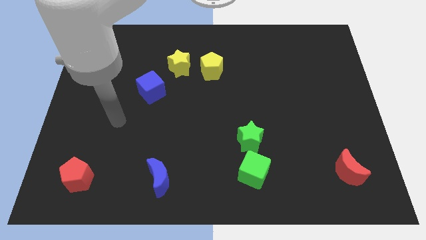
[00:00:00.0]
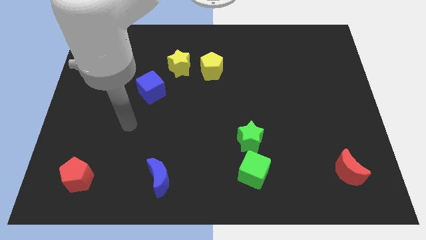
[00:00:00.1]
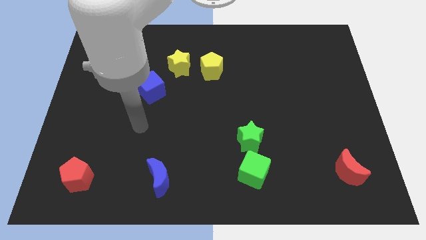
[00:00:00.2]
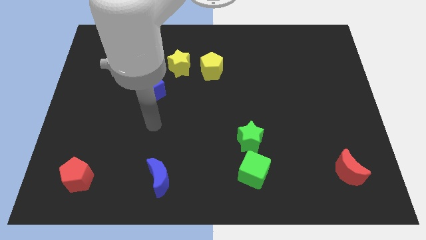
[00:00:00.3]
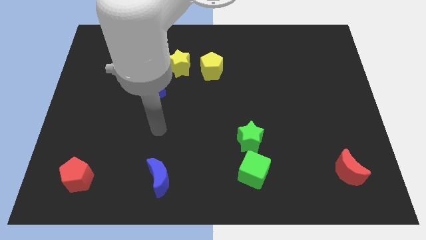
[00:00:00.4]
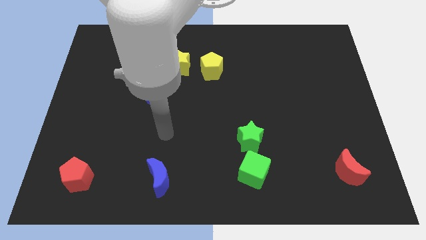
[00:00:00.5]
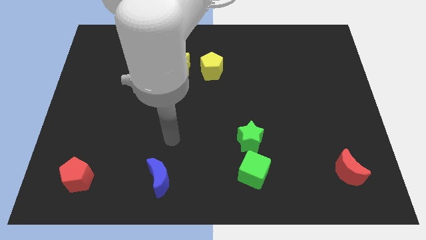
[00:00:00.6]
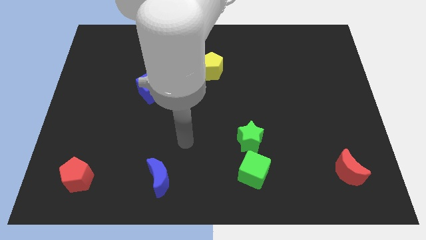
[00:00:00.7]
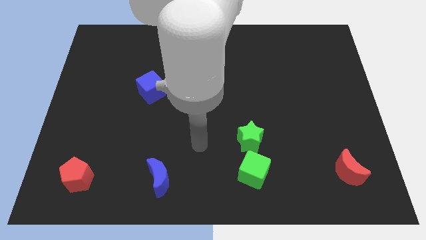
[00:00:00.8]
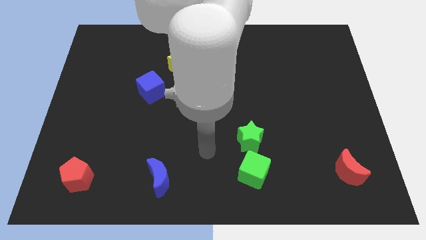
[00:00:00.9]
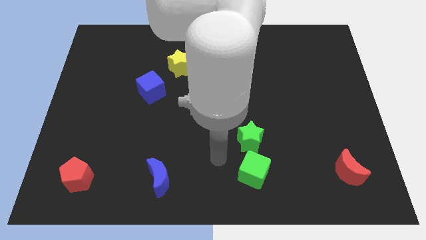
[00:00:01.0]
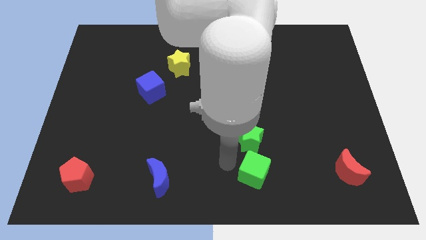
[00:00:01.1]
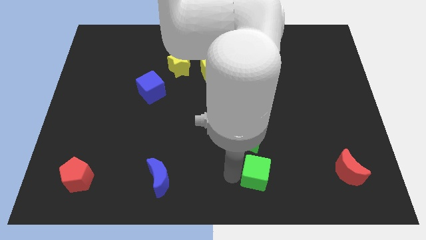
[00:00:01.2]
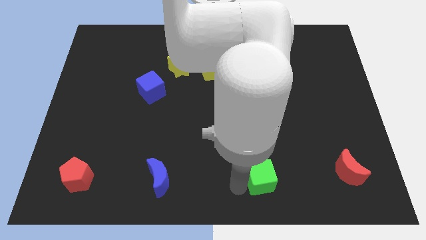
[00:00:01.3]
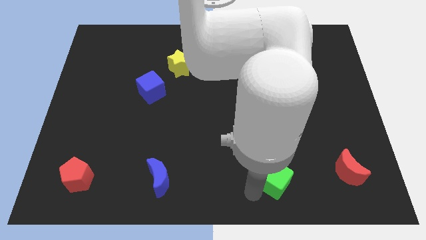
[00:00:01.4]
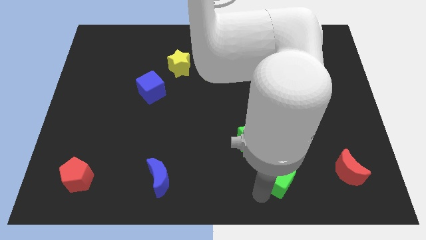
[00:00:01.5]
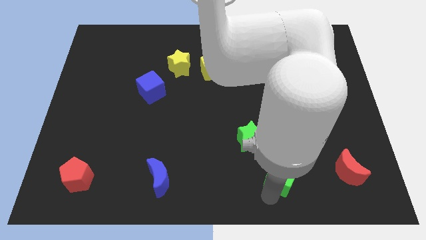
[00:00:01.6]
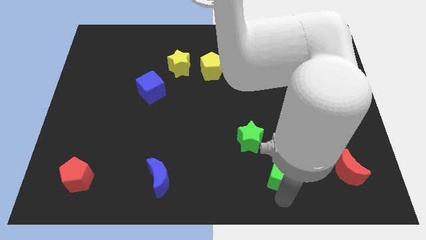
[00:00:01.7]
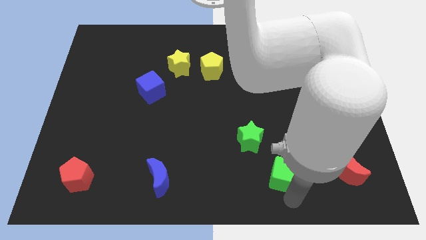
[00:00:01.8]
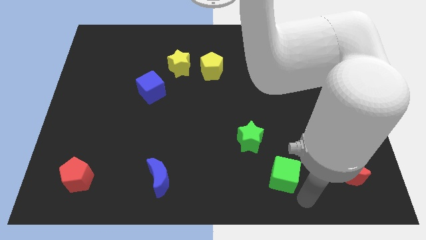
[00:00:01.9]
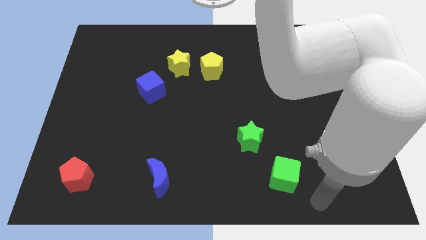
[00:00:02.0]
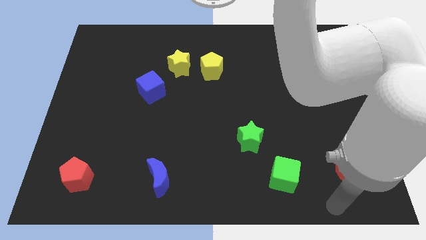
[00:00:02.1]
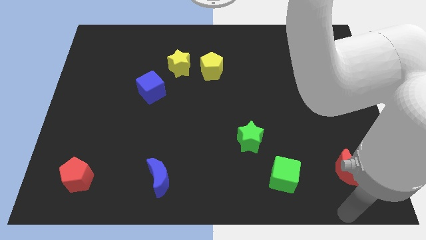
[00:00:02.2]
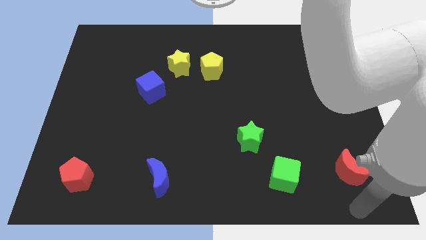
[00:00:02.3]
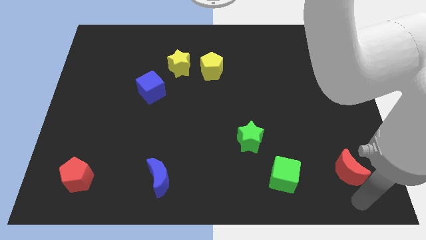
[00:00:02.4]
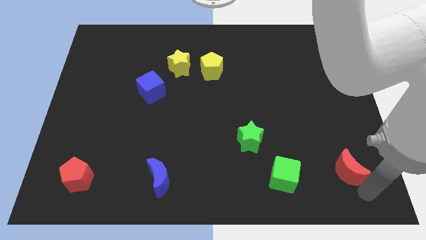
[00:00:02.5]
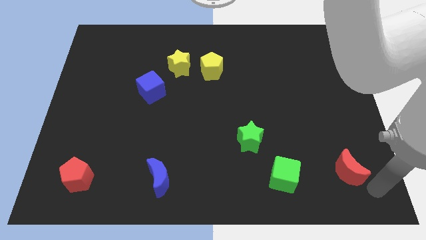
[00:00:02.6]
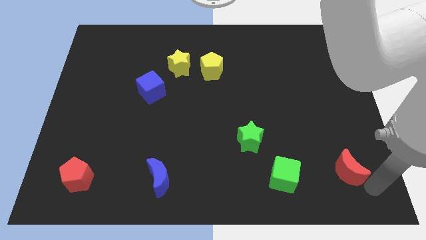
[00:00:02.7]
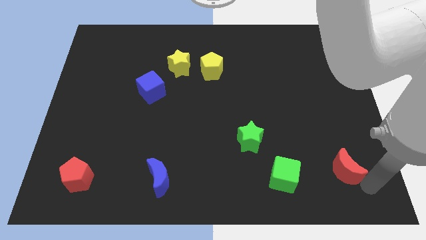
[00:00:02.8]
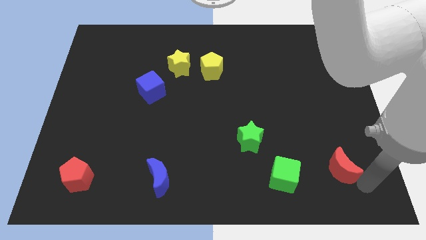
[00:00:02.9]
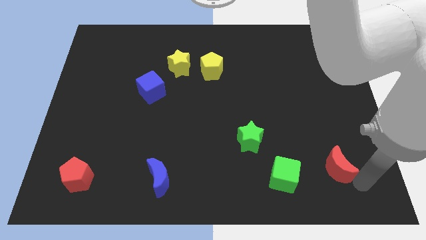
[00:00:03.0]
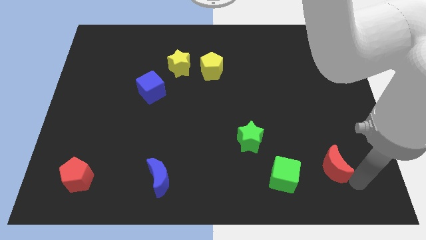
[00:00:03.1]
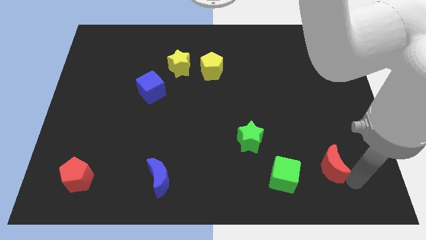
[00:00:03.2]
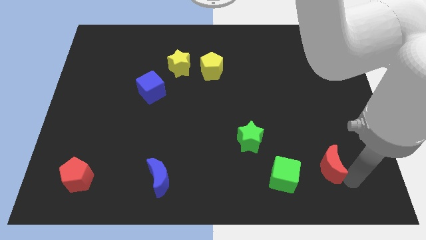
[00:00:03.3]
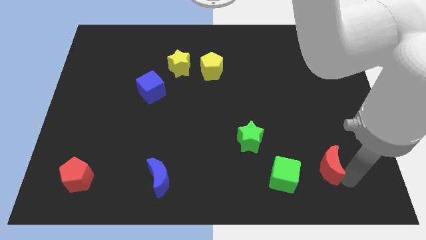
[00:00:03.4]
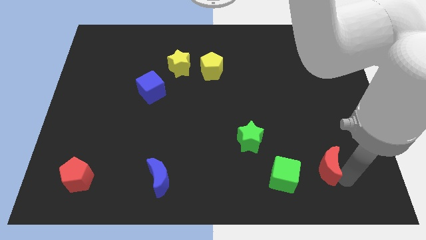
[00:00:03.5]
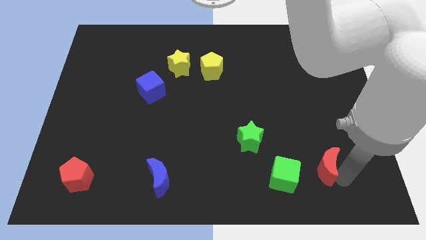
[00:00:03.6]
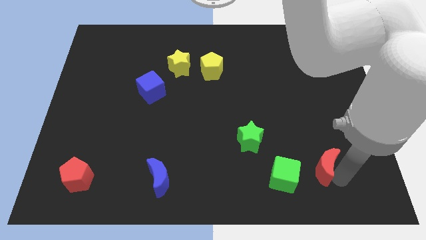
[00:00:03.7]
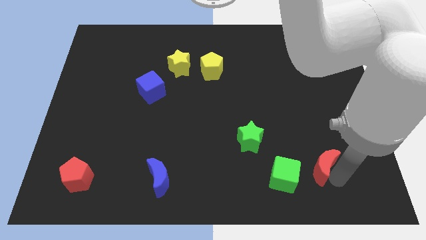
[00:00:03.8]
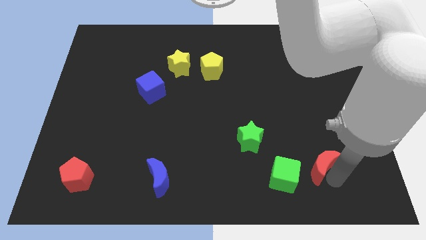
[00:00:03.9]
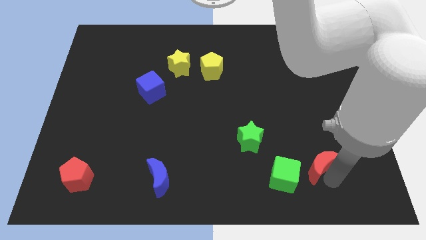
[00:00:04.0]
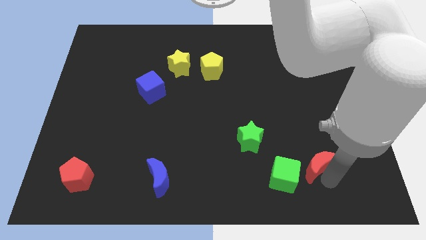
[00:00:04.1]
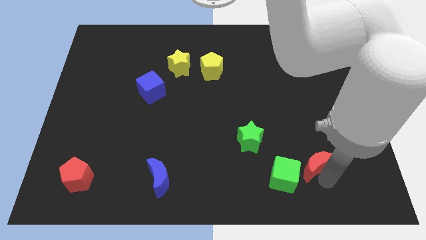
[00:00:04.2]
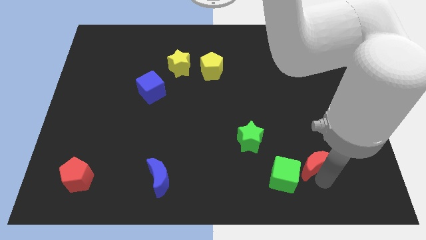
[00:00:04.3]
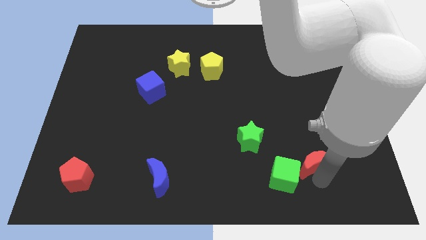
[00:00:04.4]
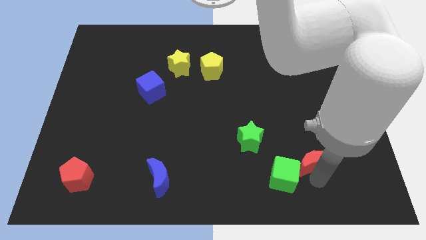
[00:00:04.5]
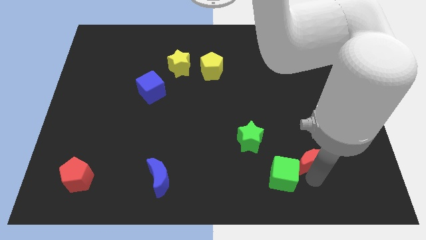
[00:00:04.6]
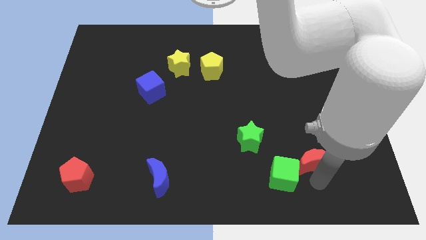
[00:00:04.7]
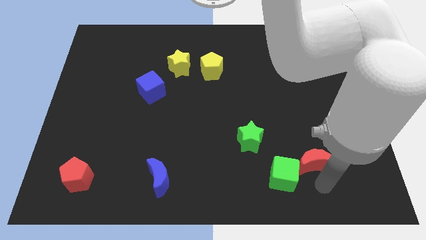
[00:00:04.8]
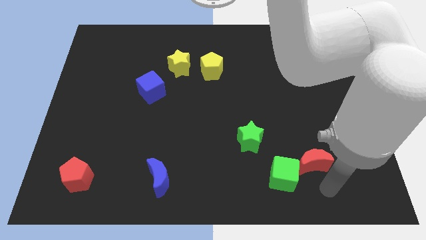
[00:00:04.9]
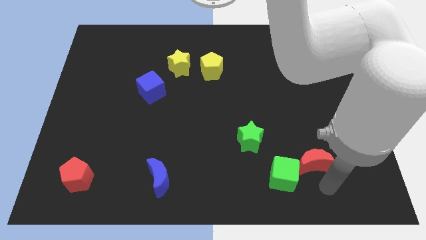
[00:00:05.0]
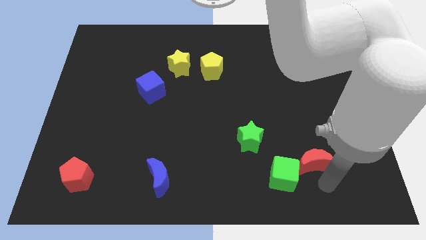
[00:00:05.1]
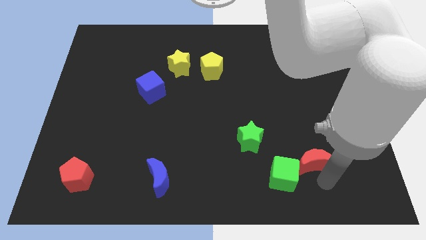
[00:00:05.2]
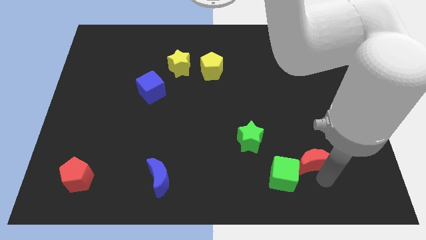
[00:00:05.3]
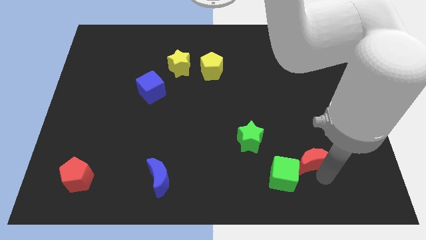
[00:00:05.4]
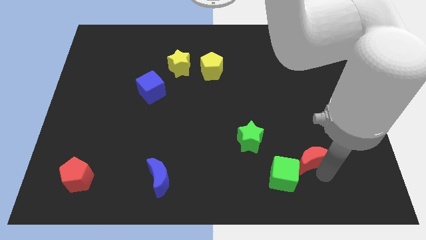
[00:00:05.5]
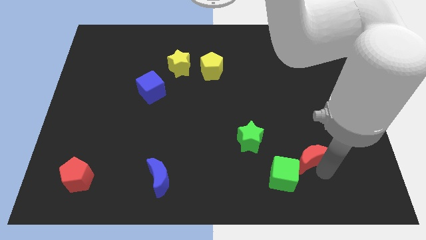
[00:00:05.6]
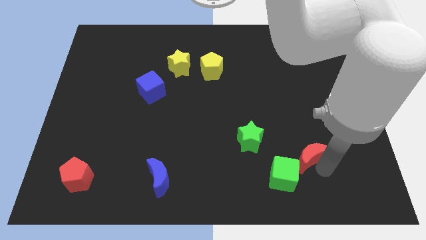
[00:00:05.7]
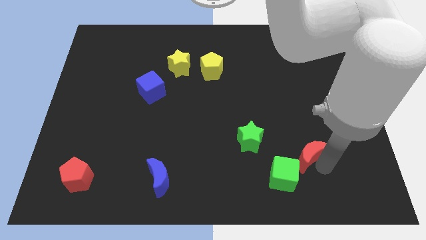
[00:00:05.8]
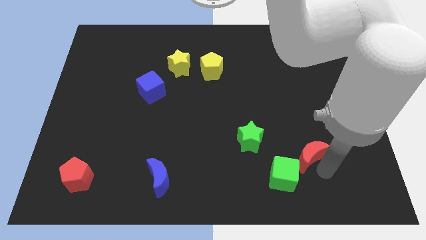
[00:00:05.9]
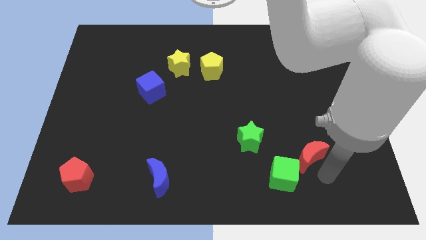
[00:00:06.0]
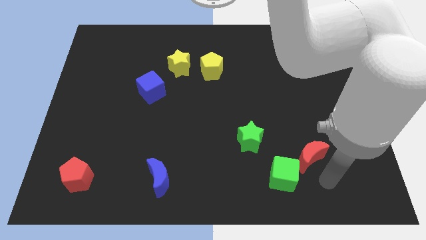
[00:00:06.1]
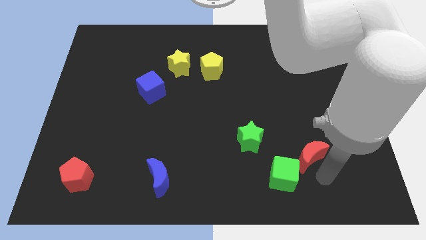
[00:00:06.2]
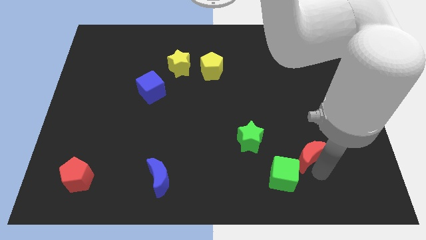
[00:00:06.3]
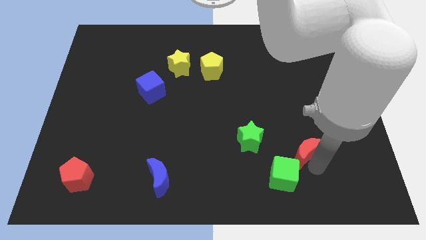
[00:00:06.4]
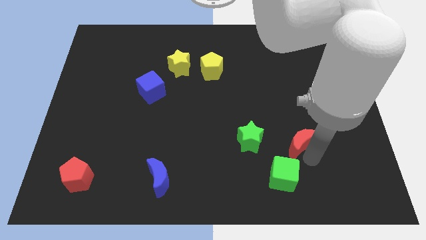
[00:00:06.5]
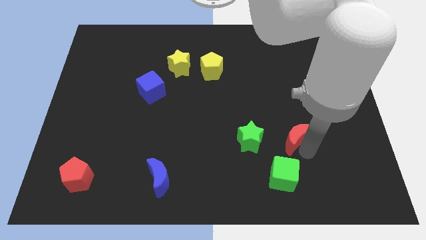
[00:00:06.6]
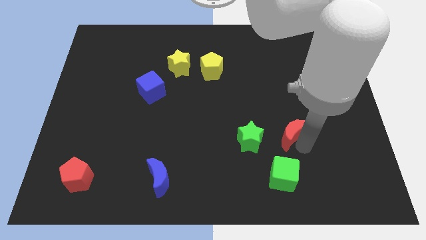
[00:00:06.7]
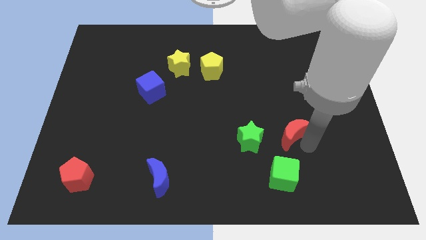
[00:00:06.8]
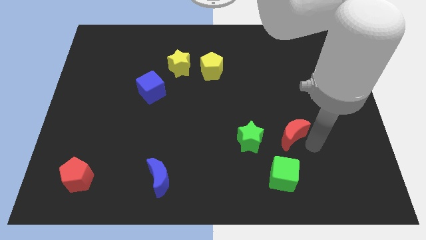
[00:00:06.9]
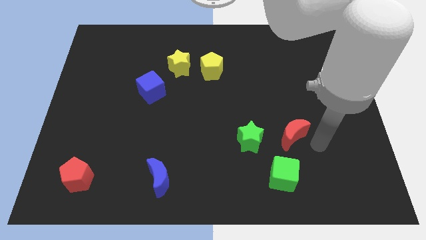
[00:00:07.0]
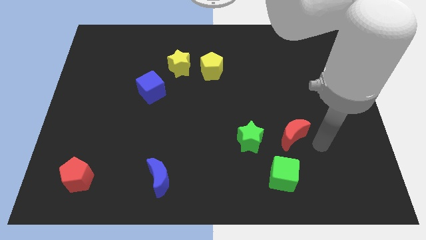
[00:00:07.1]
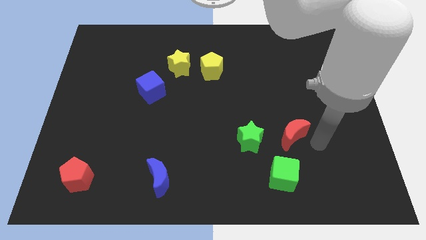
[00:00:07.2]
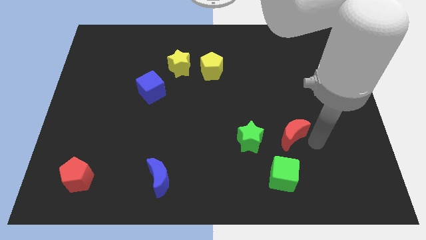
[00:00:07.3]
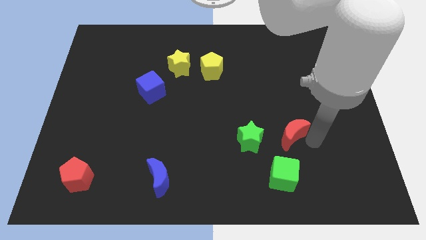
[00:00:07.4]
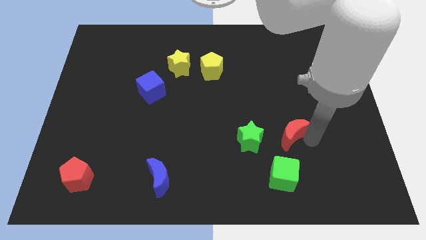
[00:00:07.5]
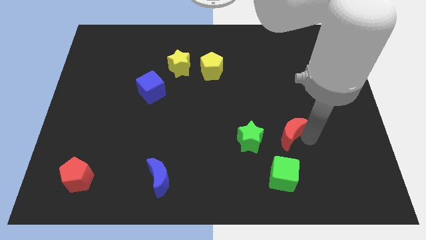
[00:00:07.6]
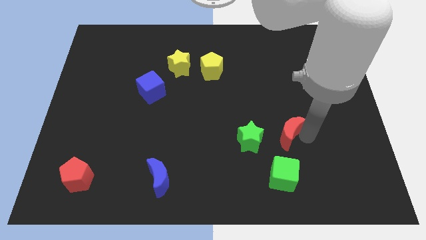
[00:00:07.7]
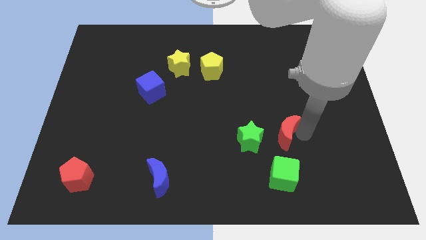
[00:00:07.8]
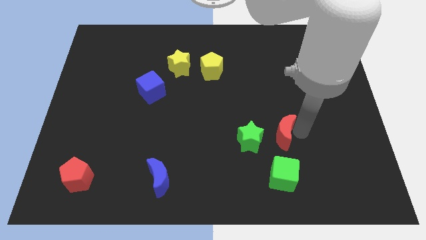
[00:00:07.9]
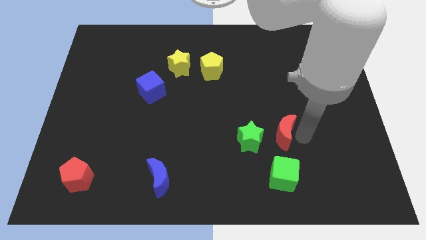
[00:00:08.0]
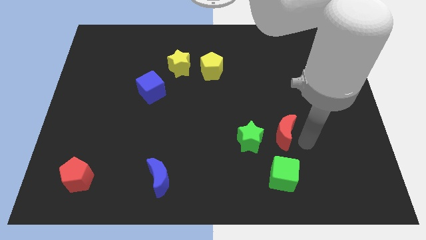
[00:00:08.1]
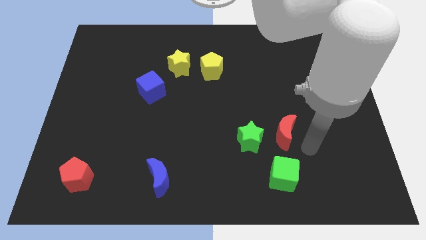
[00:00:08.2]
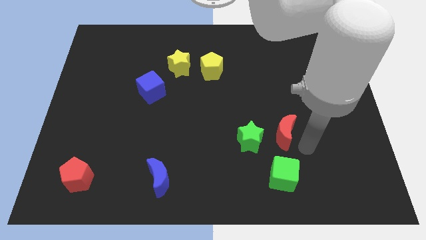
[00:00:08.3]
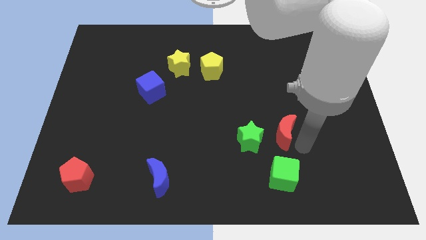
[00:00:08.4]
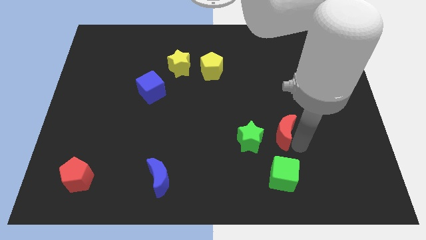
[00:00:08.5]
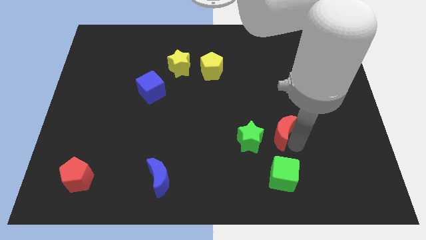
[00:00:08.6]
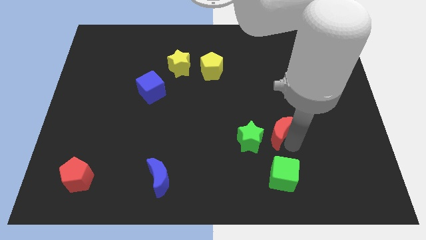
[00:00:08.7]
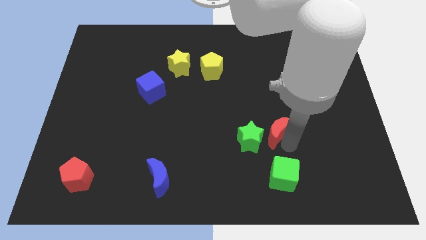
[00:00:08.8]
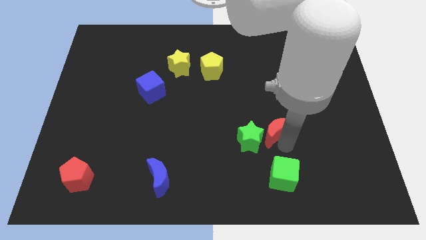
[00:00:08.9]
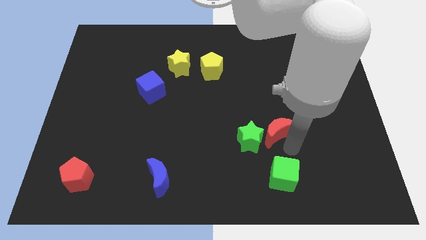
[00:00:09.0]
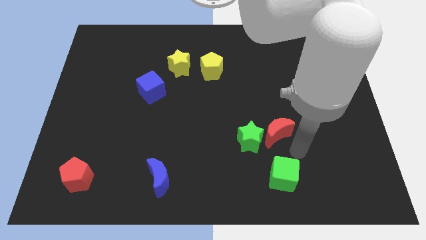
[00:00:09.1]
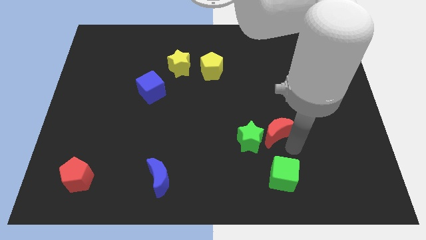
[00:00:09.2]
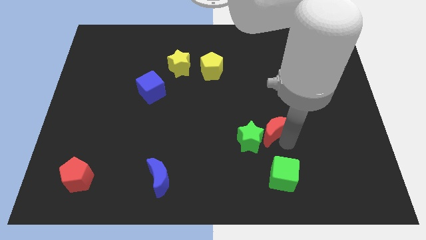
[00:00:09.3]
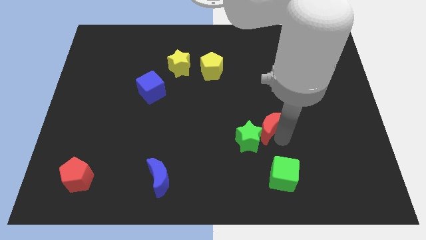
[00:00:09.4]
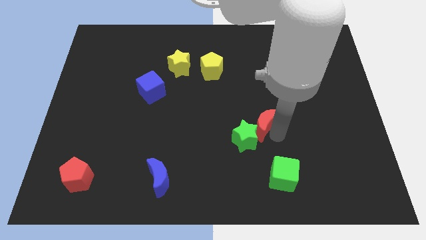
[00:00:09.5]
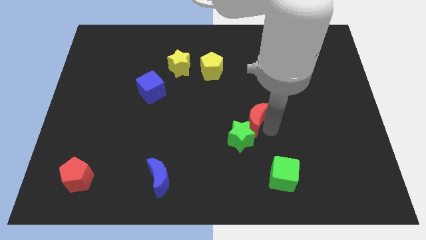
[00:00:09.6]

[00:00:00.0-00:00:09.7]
put the red moon to the middle of the board
